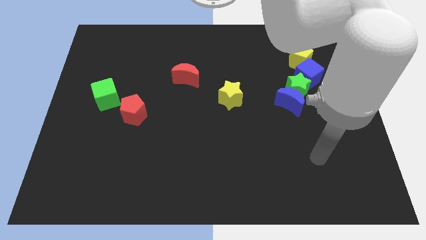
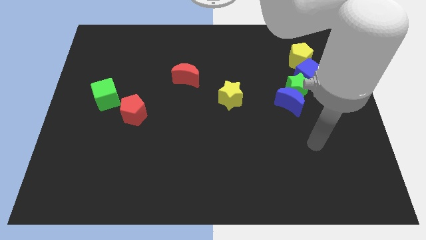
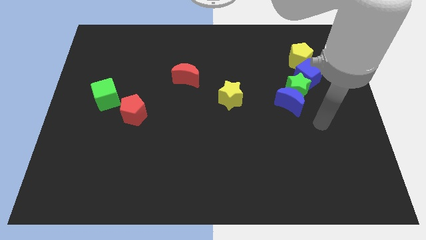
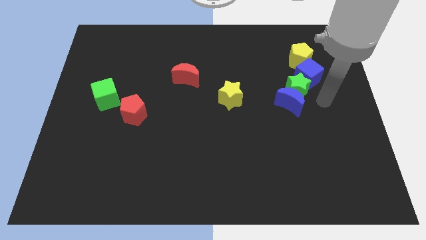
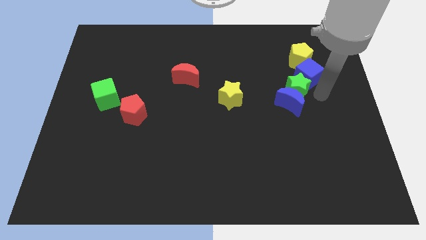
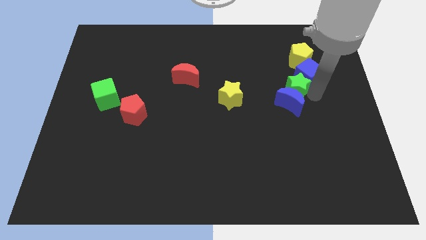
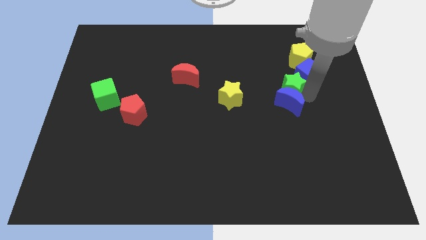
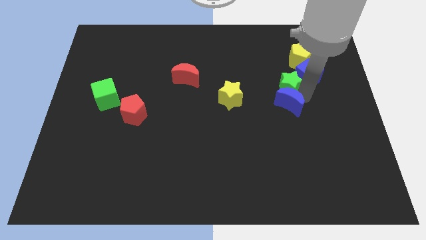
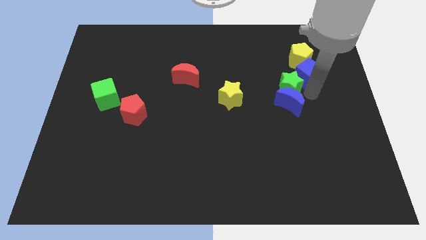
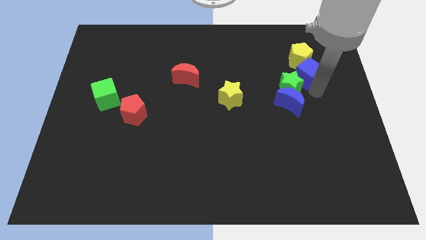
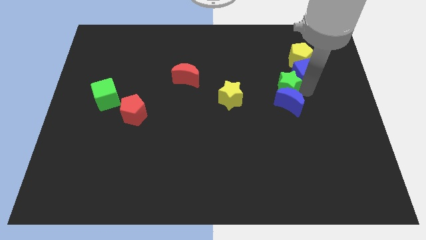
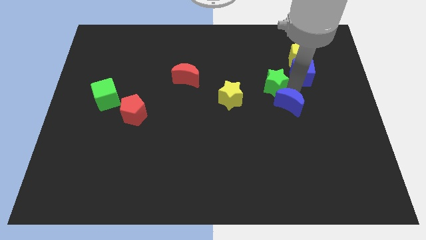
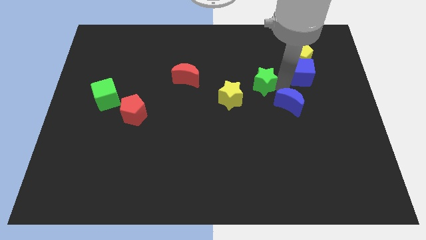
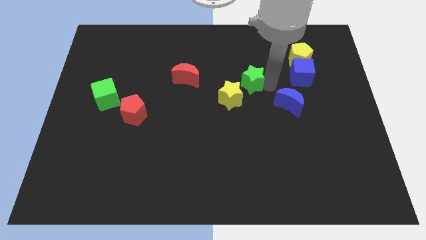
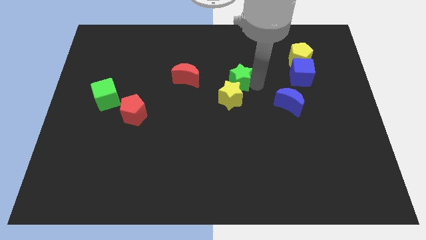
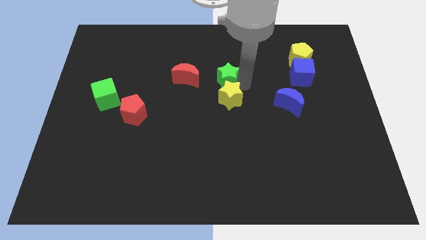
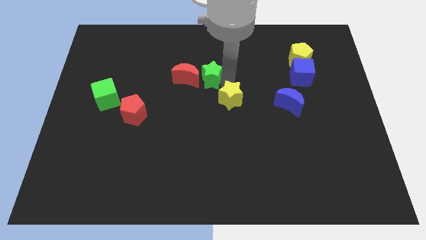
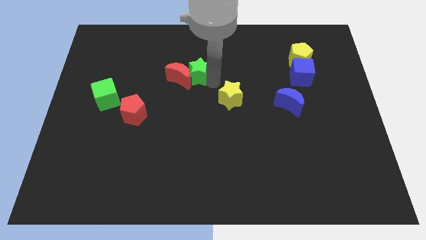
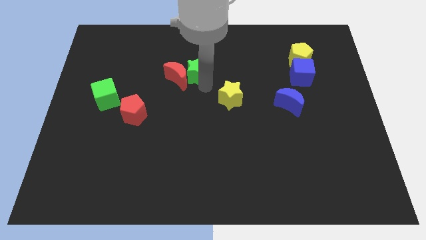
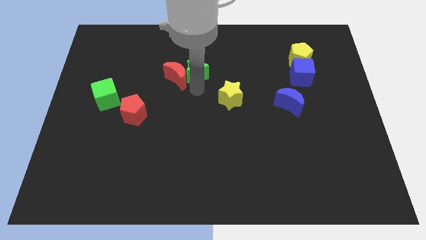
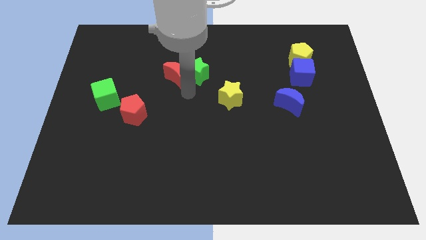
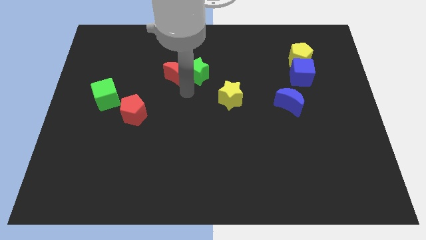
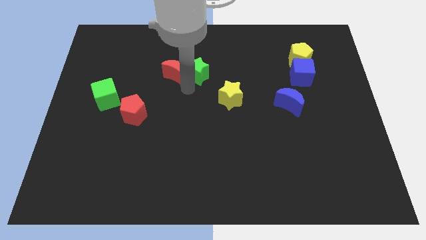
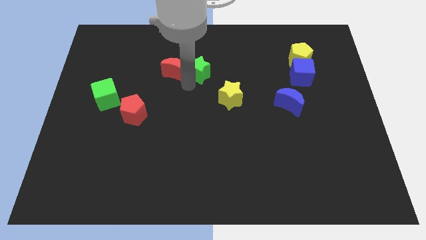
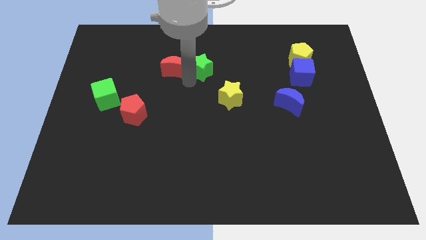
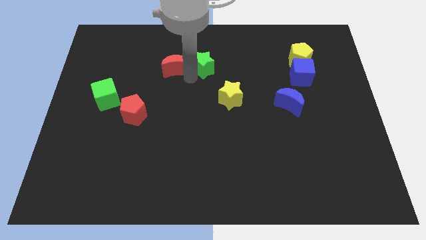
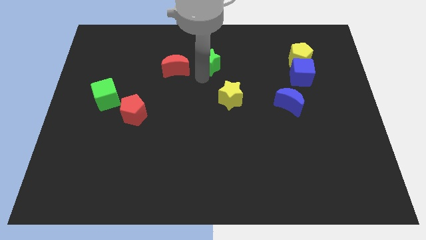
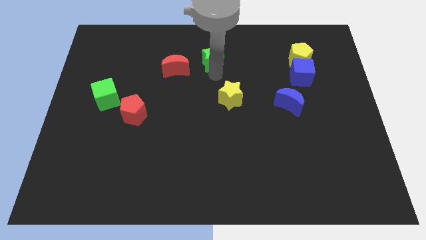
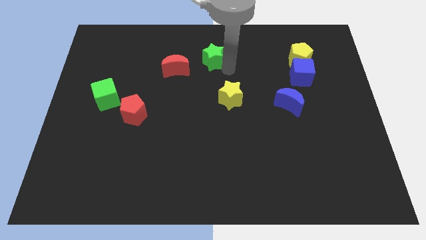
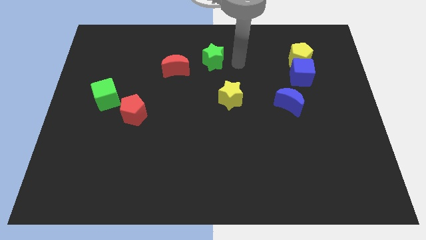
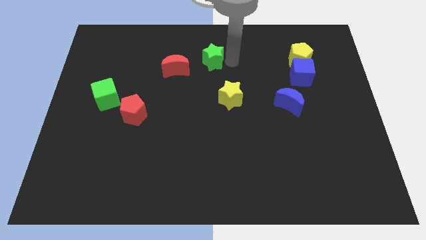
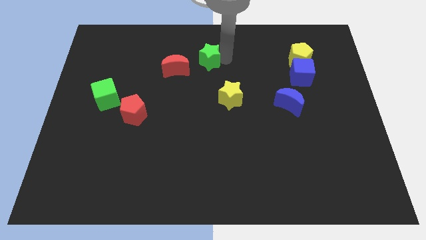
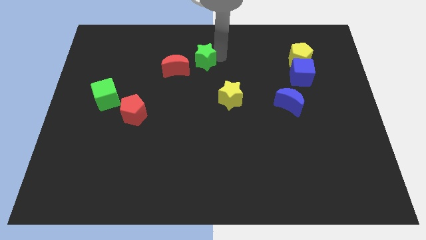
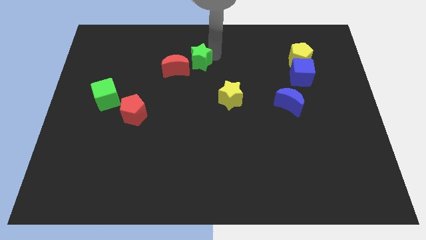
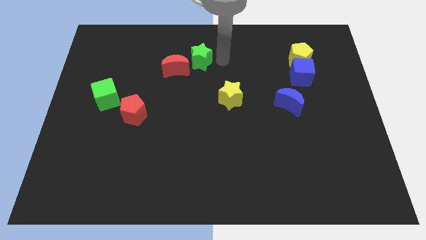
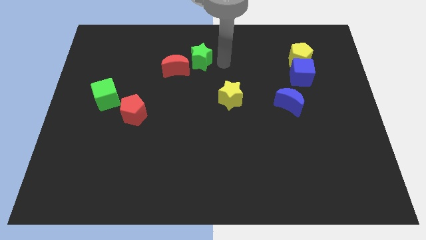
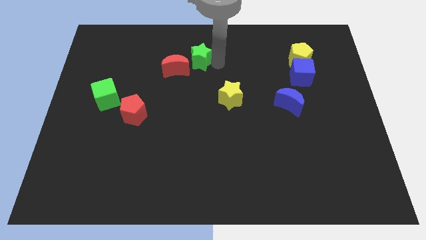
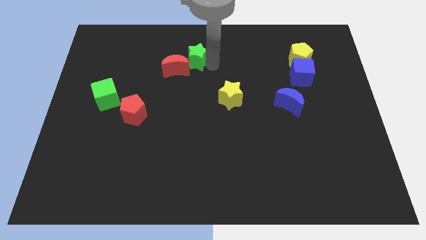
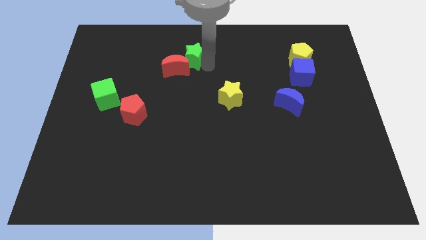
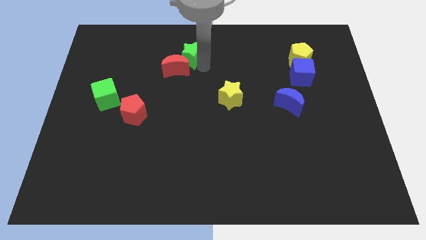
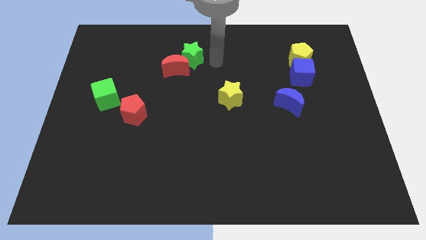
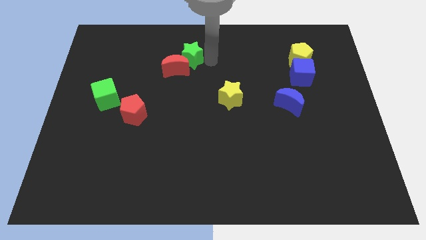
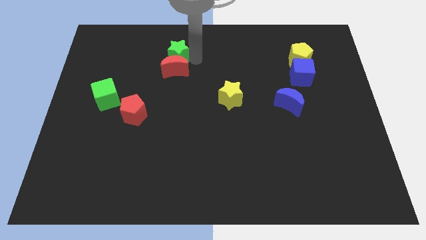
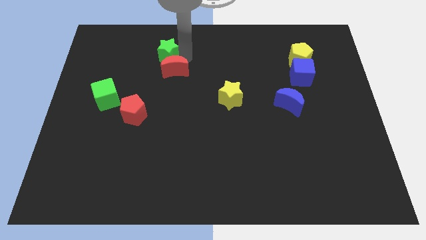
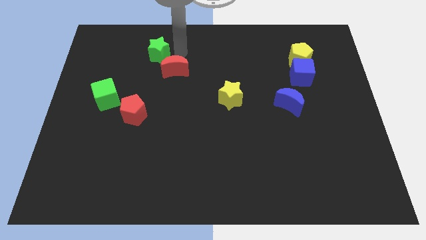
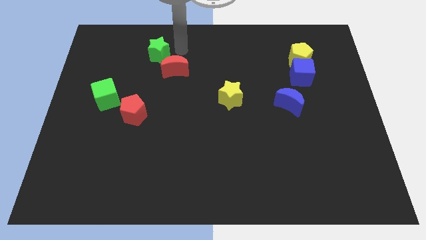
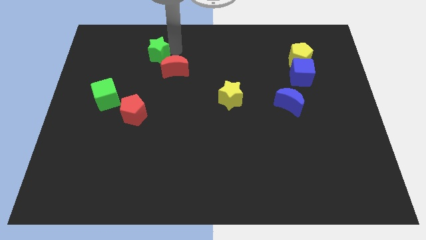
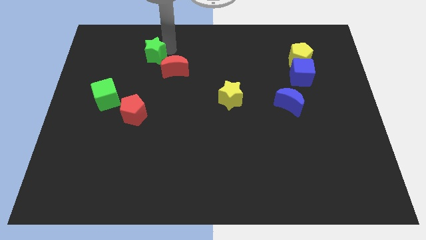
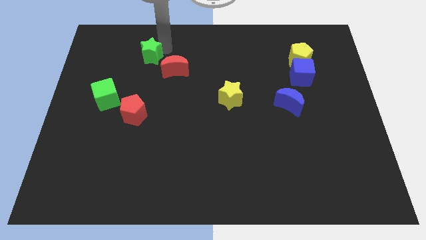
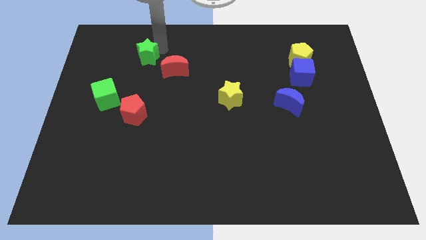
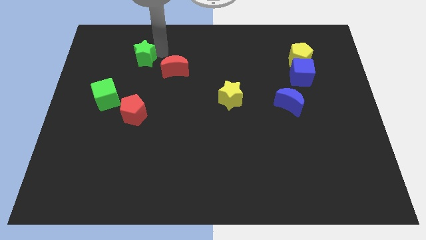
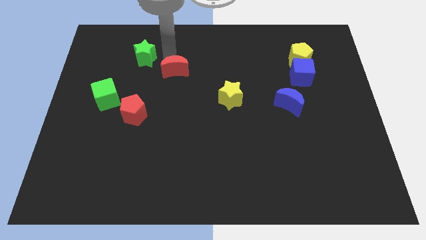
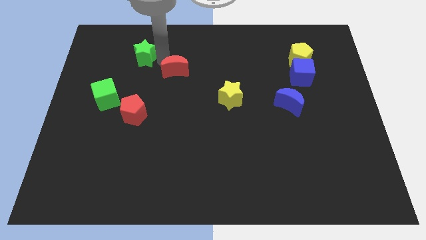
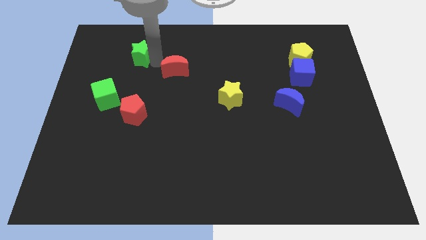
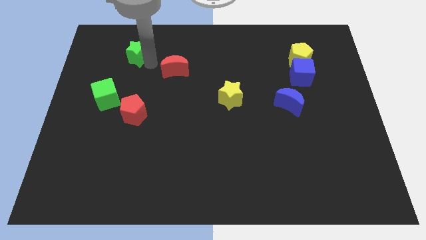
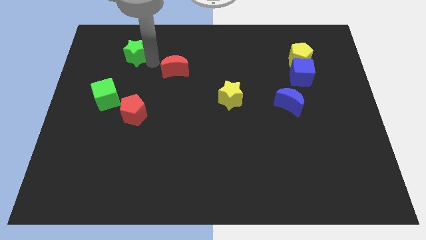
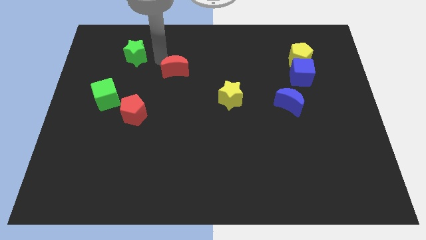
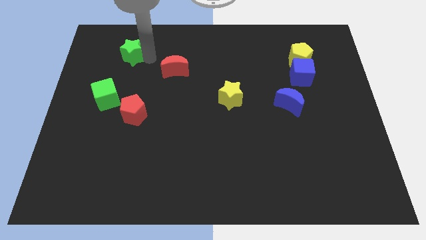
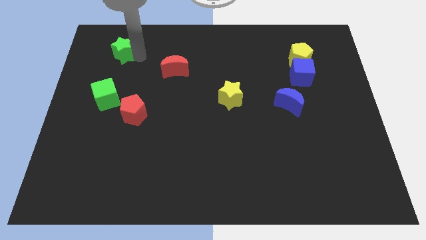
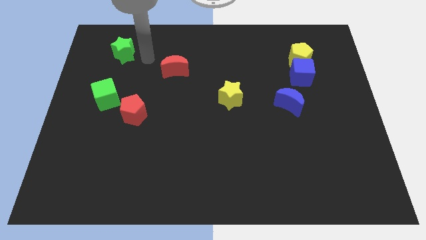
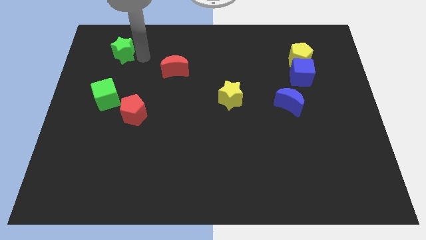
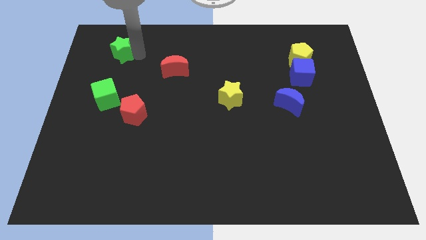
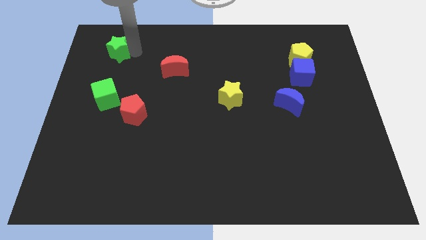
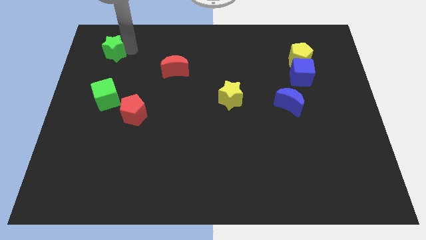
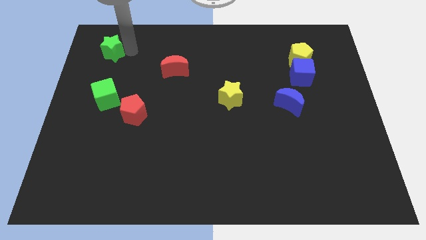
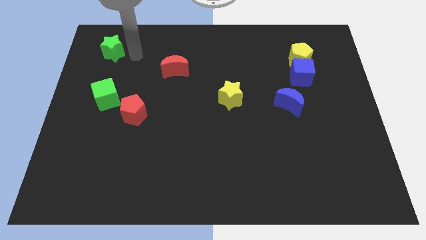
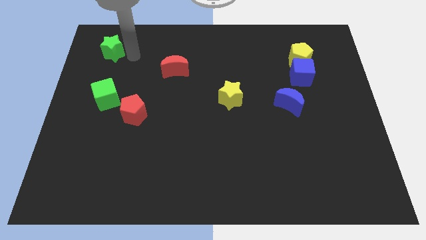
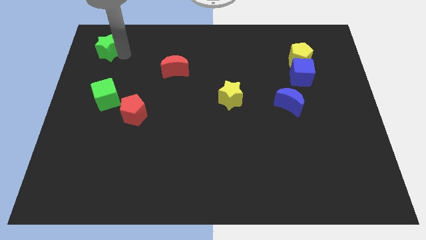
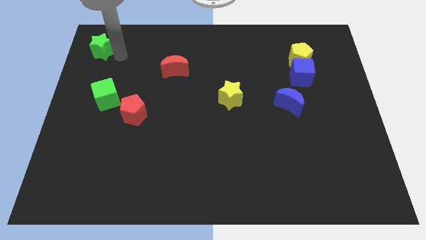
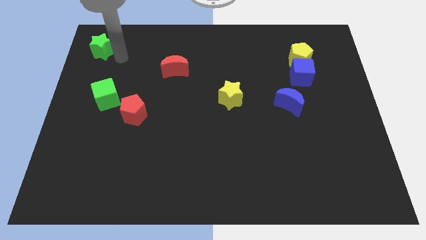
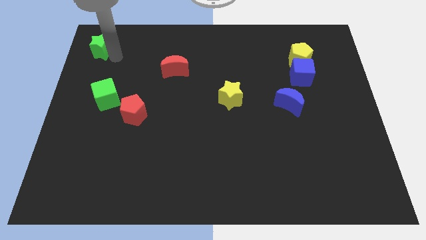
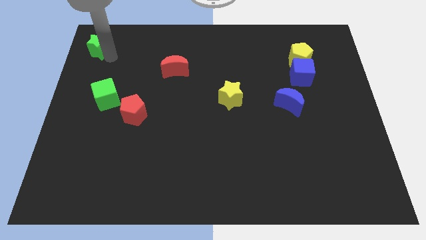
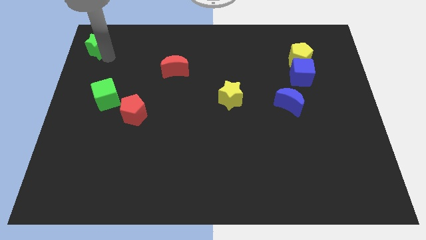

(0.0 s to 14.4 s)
move the green star to the top left of the board
